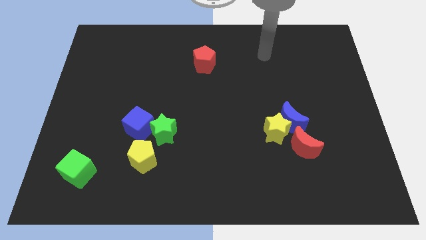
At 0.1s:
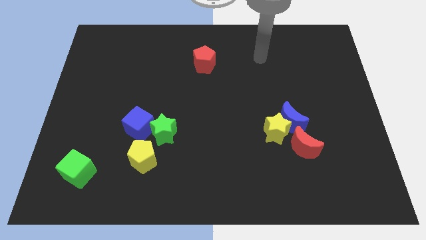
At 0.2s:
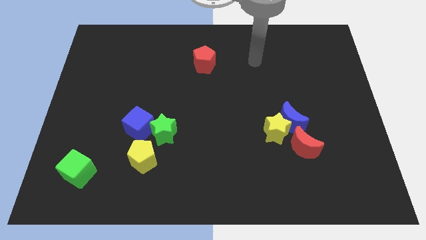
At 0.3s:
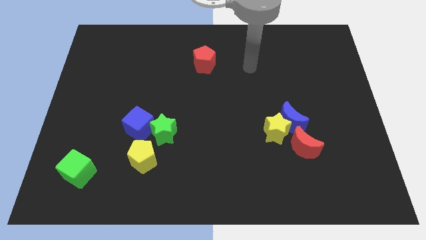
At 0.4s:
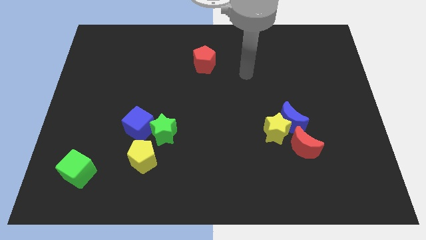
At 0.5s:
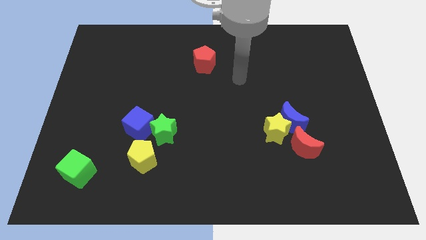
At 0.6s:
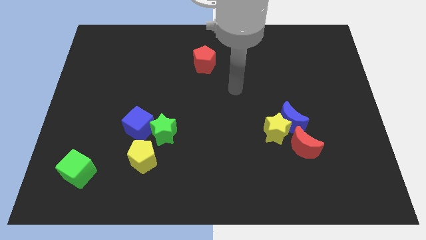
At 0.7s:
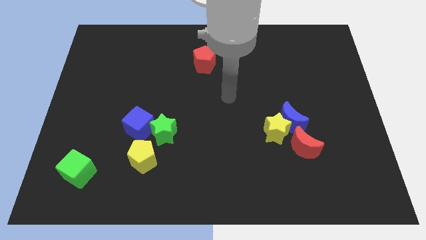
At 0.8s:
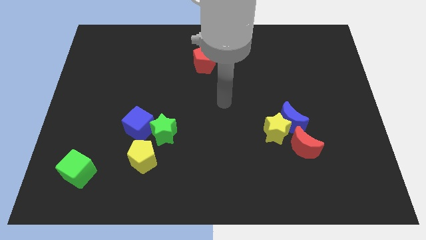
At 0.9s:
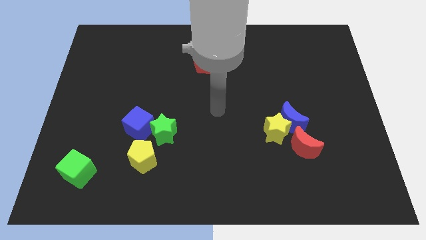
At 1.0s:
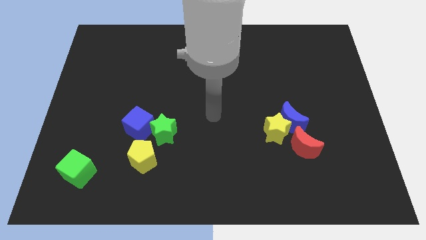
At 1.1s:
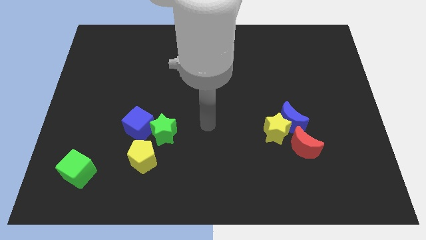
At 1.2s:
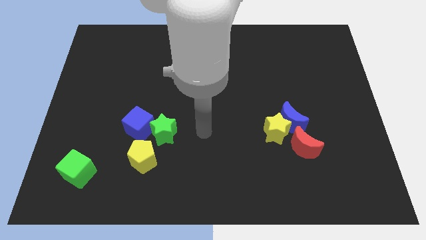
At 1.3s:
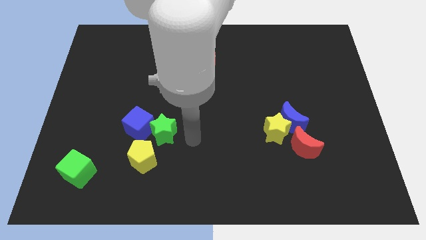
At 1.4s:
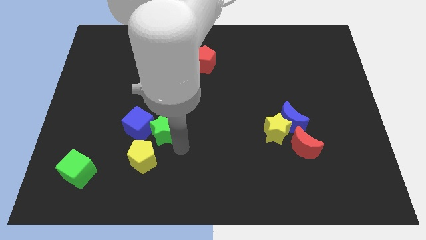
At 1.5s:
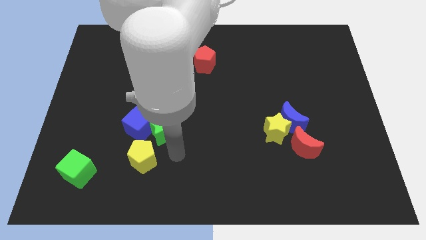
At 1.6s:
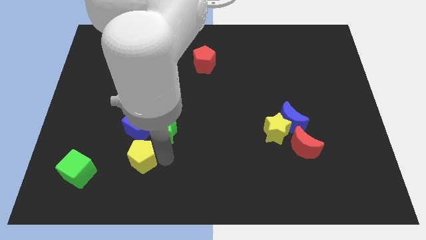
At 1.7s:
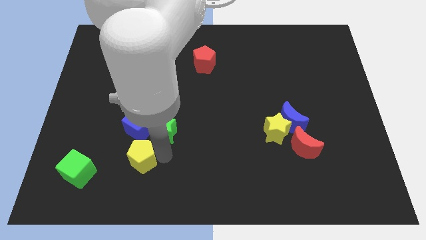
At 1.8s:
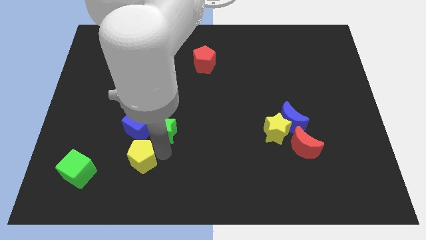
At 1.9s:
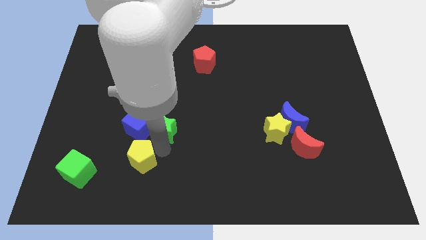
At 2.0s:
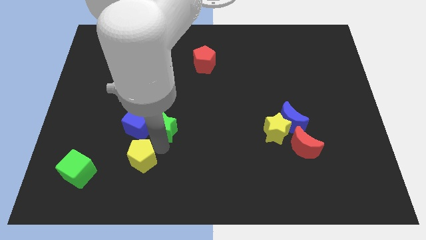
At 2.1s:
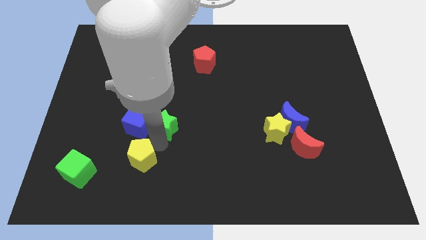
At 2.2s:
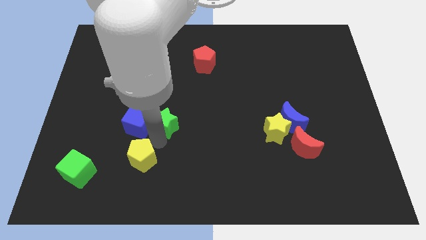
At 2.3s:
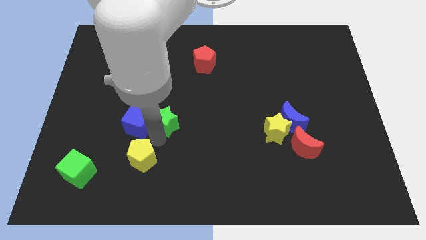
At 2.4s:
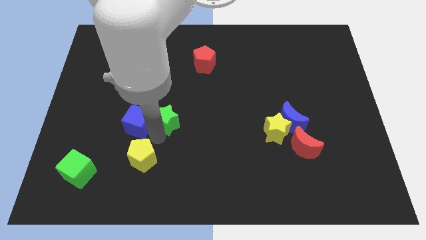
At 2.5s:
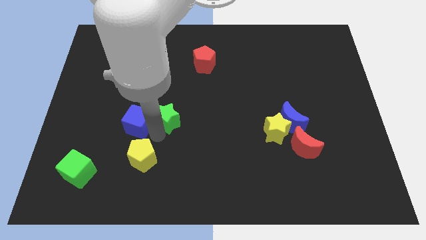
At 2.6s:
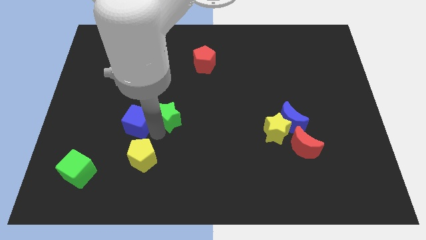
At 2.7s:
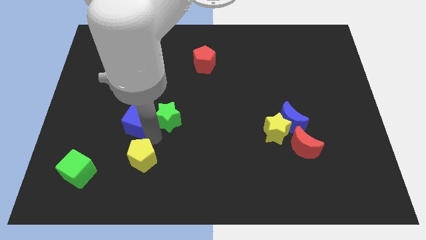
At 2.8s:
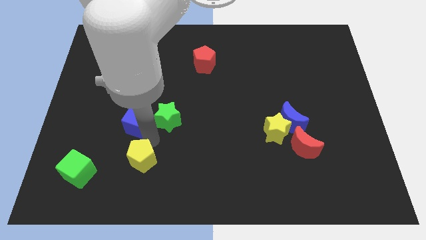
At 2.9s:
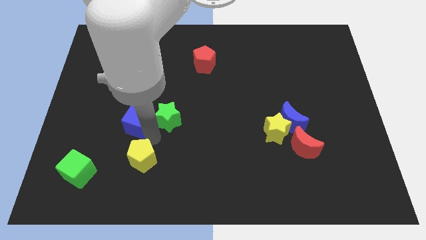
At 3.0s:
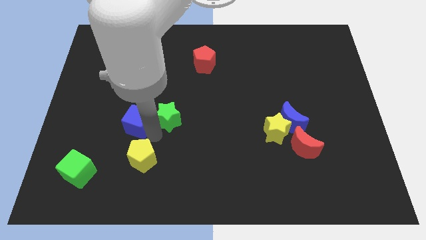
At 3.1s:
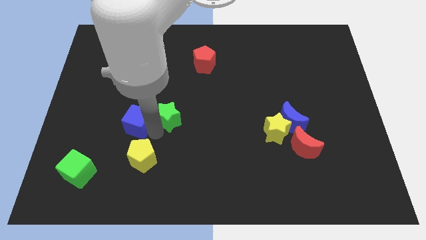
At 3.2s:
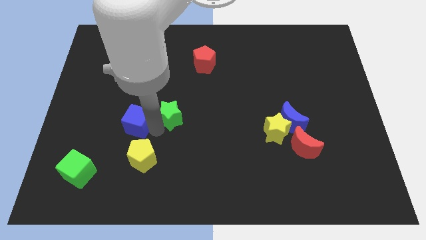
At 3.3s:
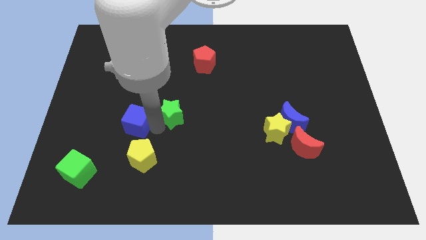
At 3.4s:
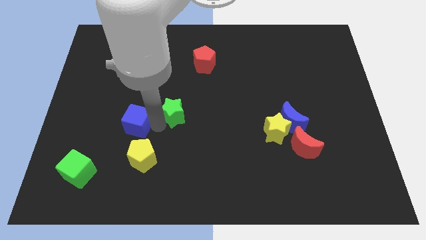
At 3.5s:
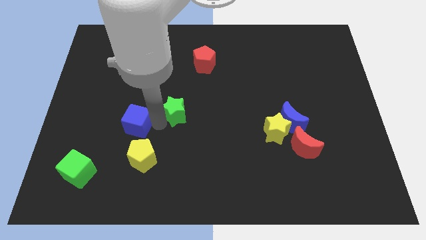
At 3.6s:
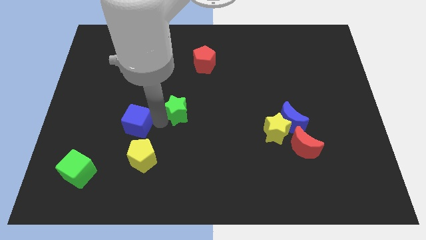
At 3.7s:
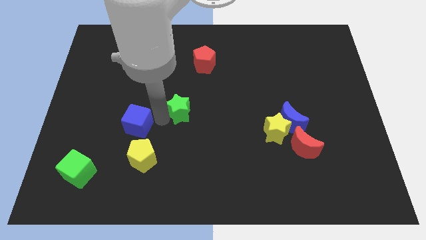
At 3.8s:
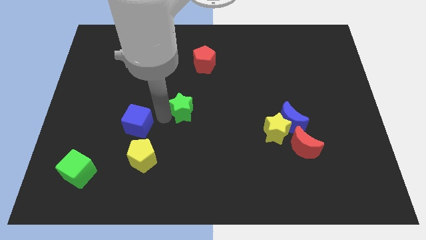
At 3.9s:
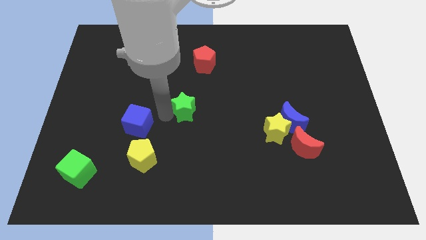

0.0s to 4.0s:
slide the green star diagonally upwards and right a bit

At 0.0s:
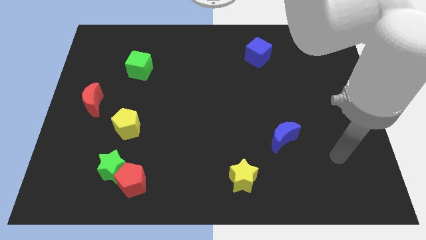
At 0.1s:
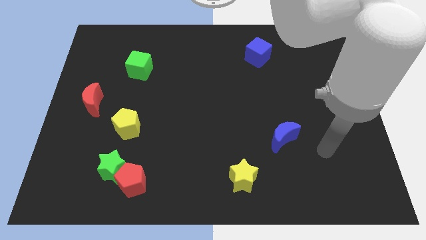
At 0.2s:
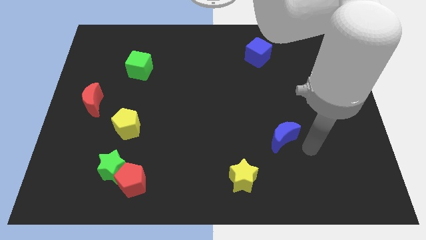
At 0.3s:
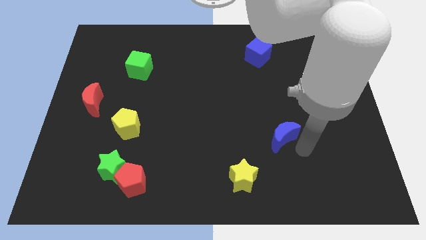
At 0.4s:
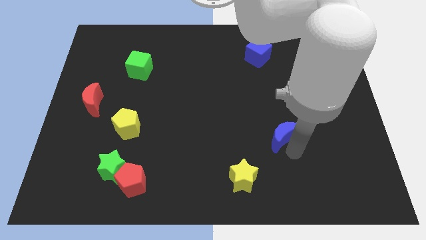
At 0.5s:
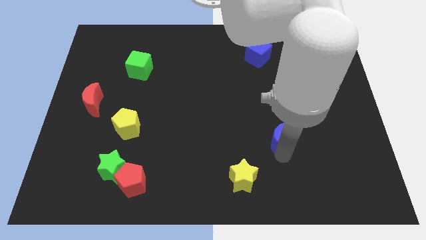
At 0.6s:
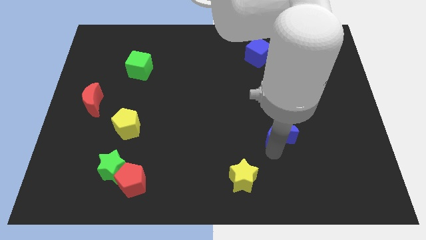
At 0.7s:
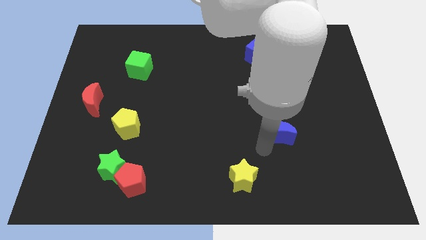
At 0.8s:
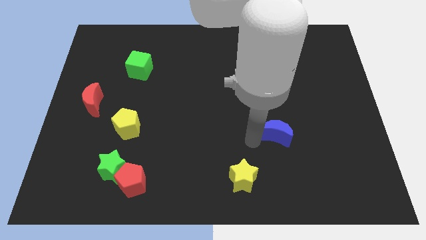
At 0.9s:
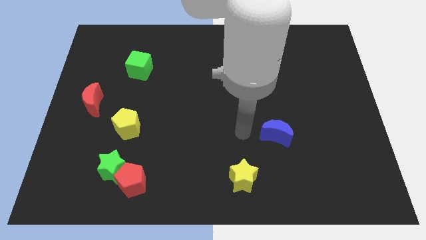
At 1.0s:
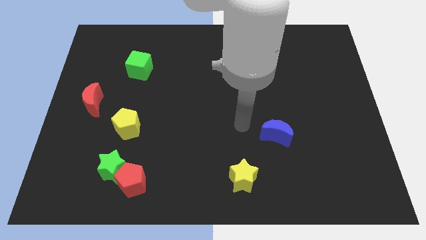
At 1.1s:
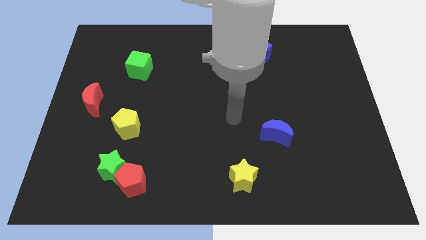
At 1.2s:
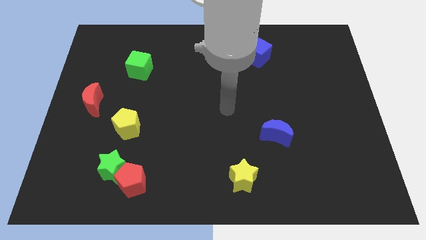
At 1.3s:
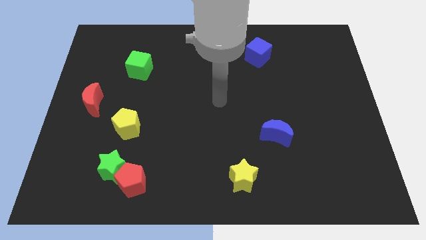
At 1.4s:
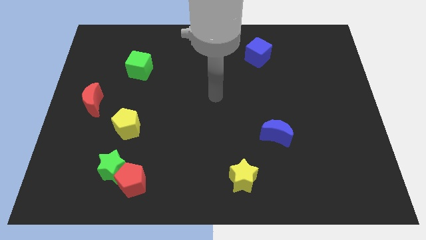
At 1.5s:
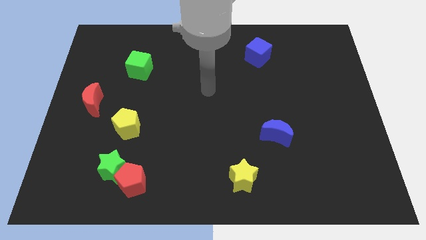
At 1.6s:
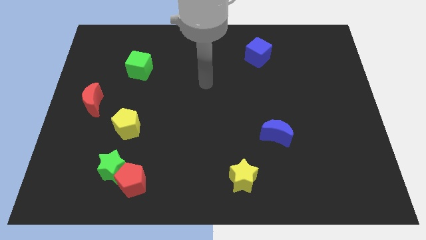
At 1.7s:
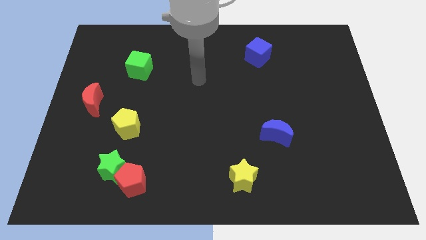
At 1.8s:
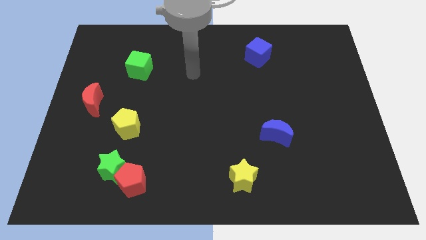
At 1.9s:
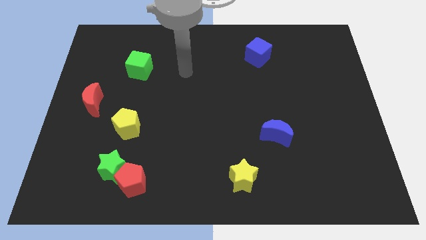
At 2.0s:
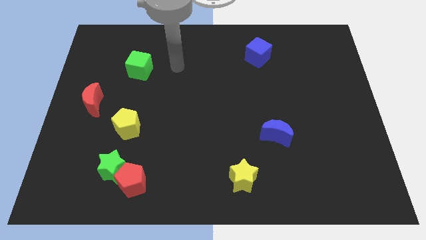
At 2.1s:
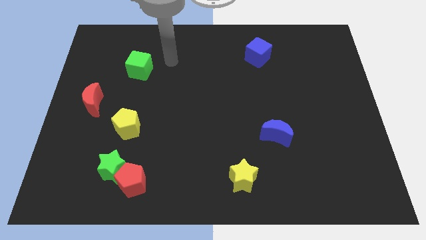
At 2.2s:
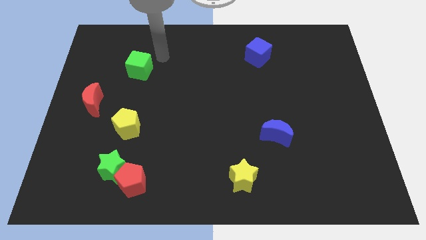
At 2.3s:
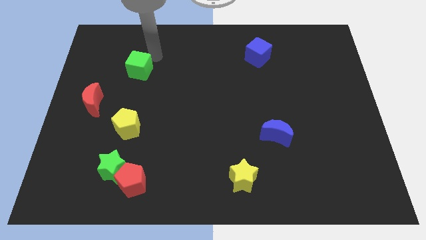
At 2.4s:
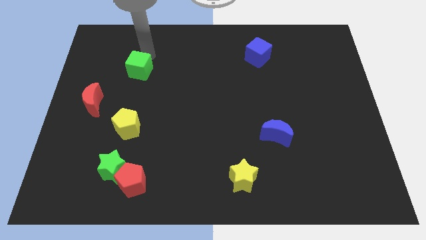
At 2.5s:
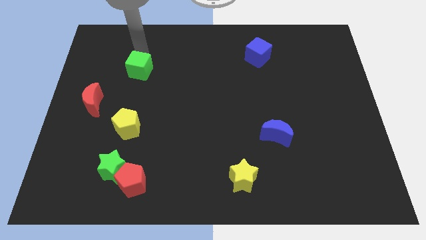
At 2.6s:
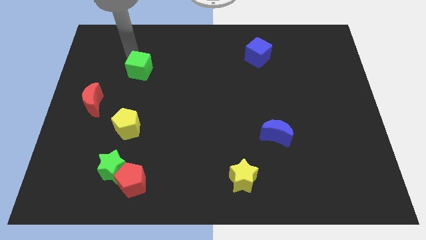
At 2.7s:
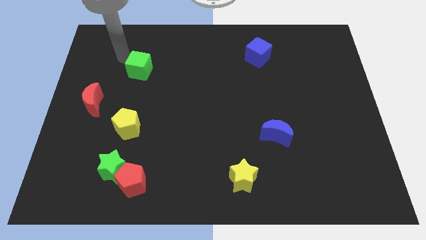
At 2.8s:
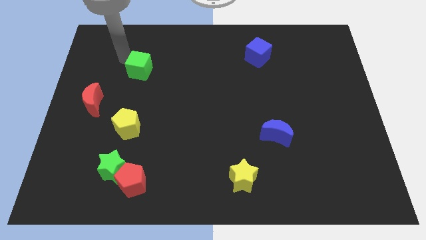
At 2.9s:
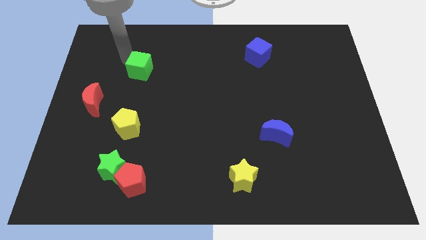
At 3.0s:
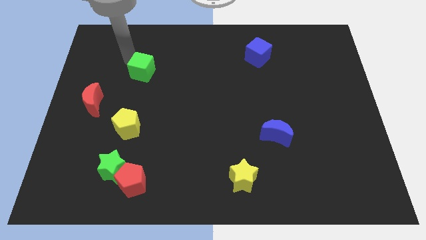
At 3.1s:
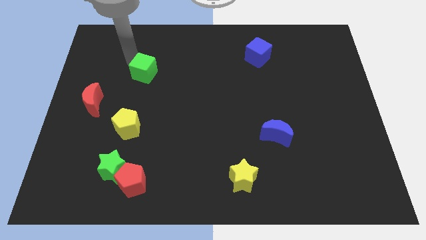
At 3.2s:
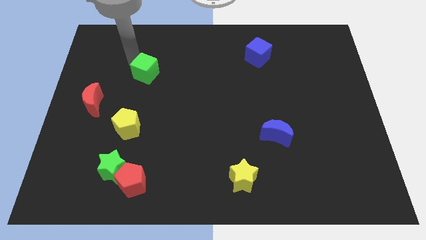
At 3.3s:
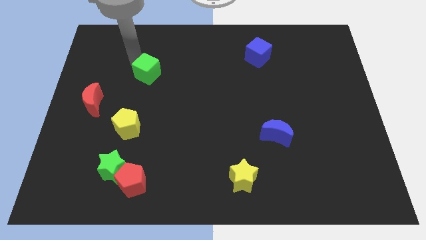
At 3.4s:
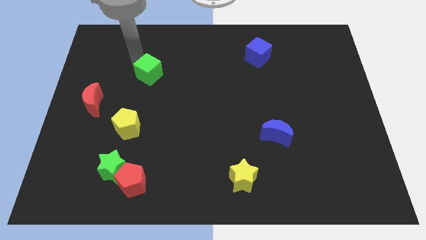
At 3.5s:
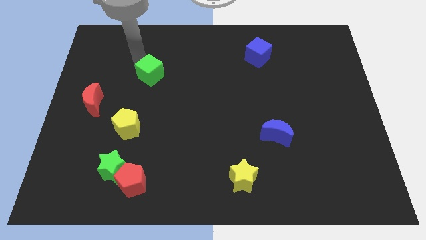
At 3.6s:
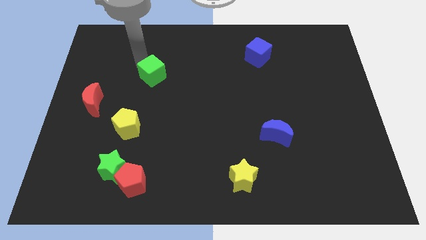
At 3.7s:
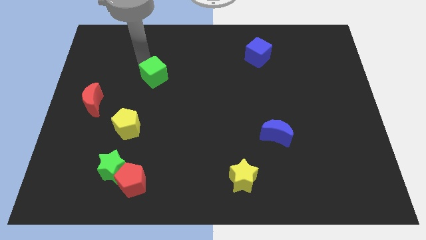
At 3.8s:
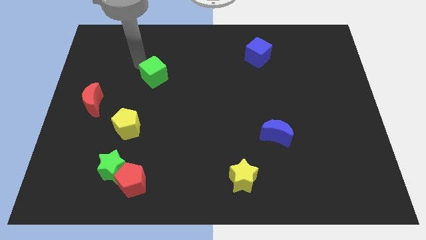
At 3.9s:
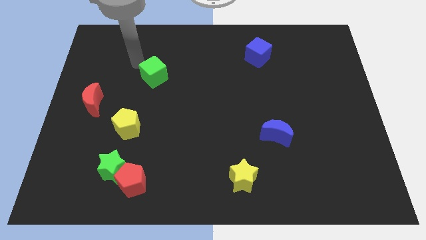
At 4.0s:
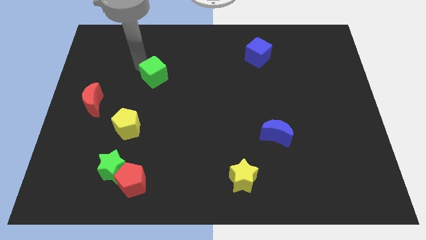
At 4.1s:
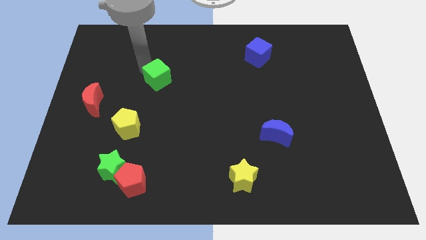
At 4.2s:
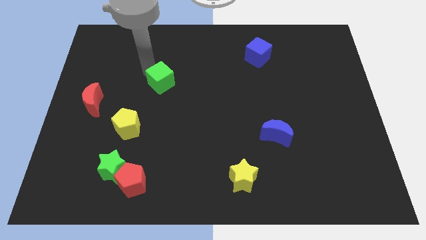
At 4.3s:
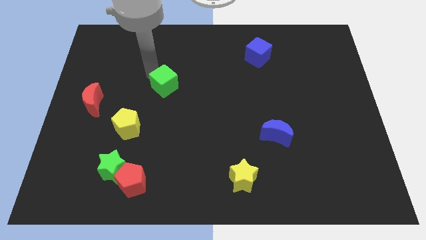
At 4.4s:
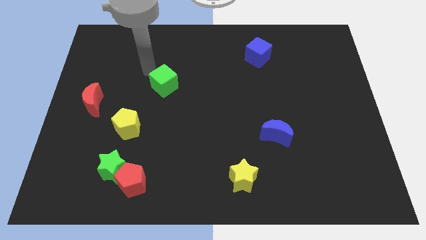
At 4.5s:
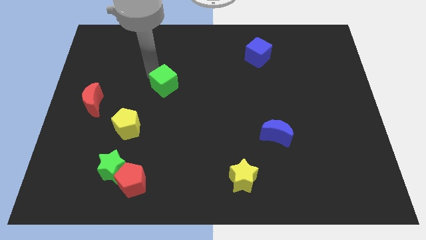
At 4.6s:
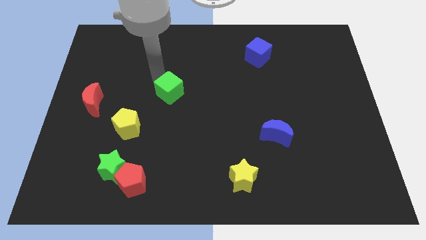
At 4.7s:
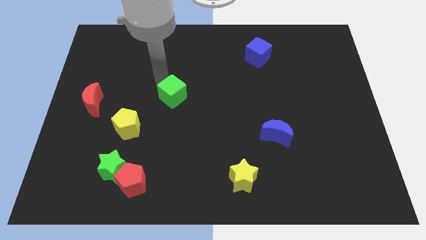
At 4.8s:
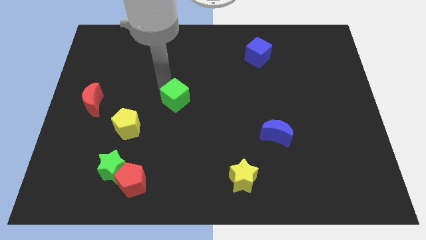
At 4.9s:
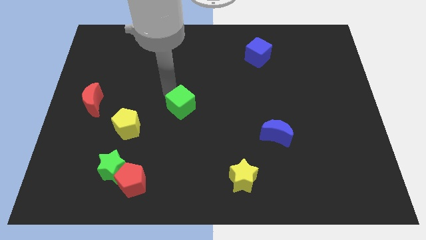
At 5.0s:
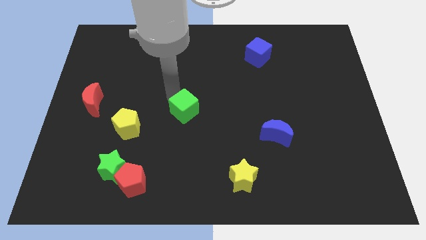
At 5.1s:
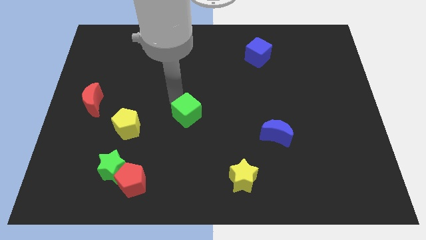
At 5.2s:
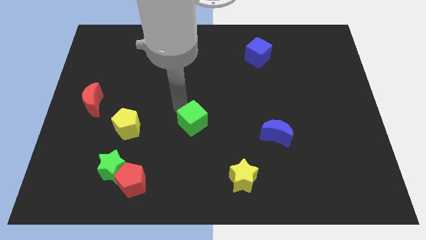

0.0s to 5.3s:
push the green cube diagonally down and to the right
